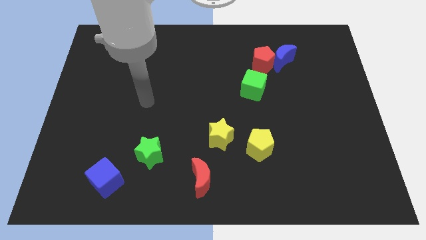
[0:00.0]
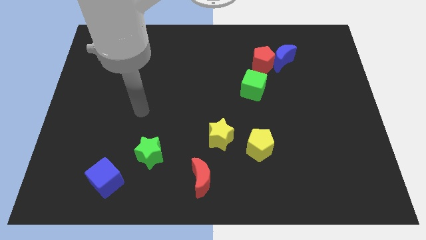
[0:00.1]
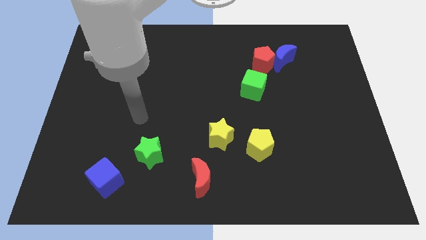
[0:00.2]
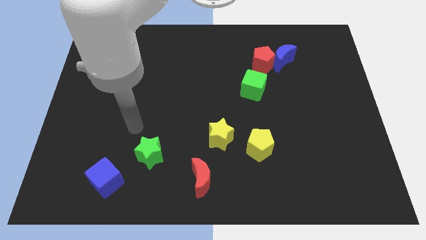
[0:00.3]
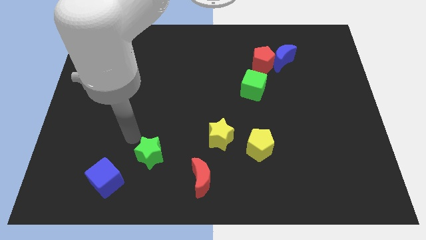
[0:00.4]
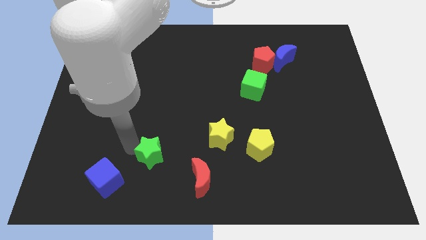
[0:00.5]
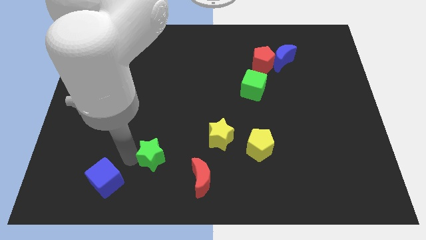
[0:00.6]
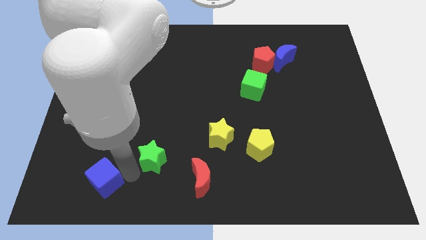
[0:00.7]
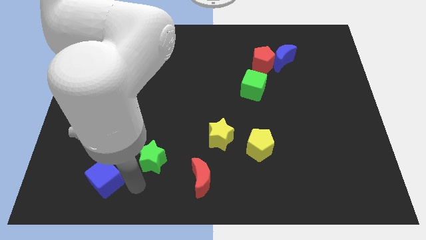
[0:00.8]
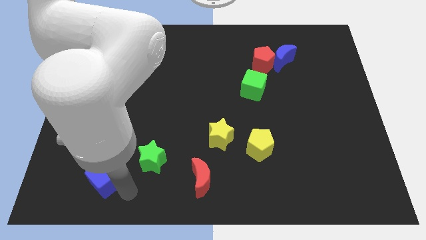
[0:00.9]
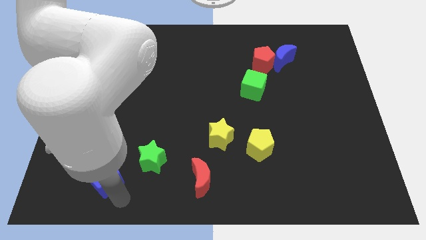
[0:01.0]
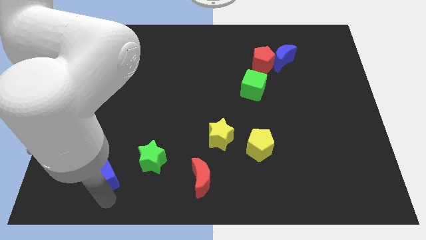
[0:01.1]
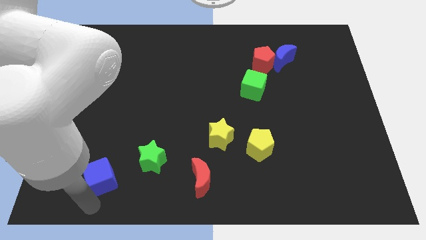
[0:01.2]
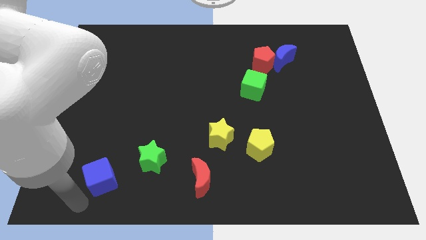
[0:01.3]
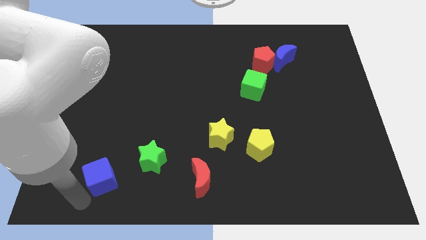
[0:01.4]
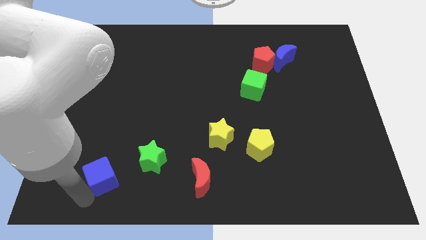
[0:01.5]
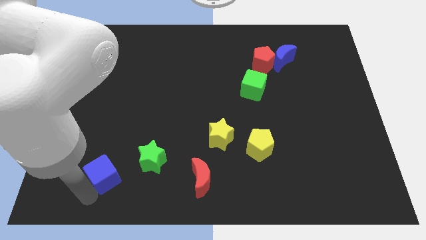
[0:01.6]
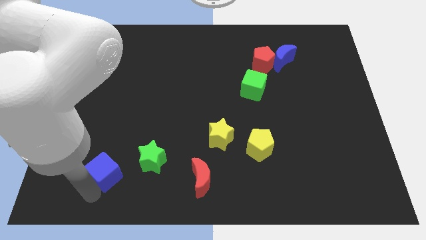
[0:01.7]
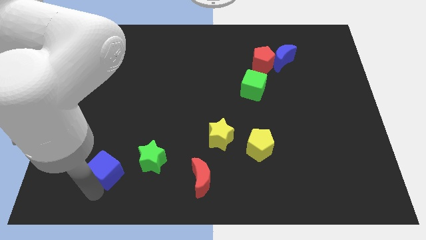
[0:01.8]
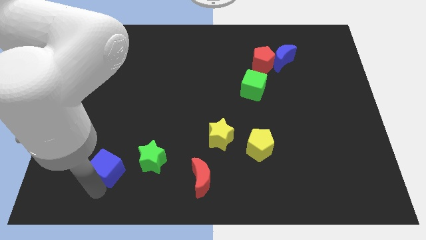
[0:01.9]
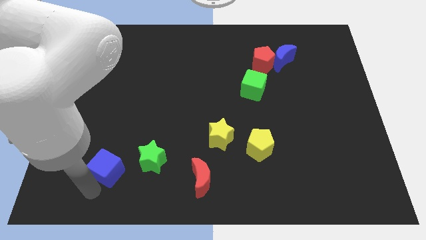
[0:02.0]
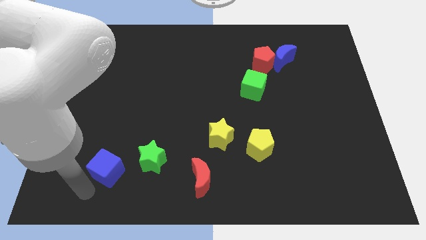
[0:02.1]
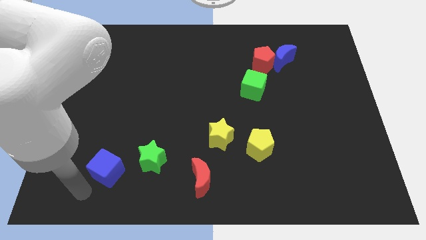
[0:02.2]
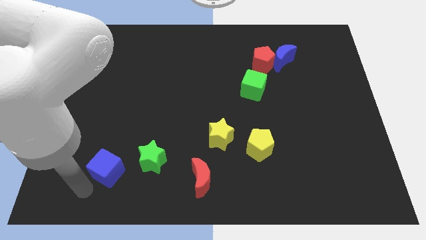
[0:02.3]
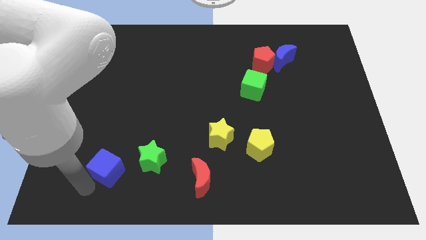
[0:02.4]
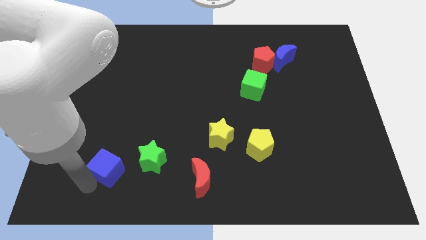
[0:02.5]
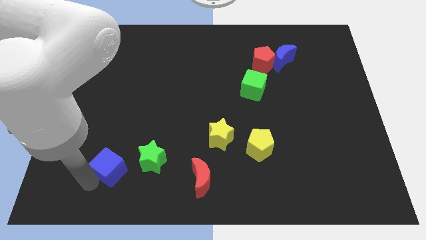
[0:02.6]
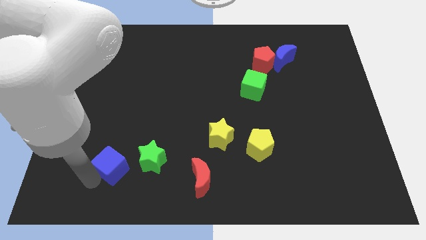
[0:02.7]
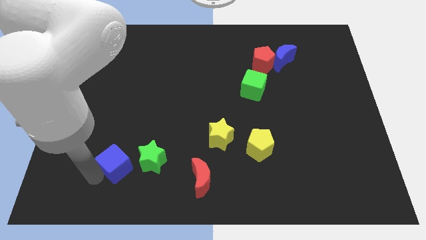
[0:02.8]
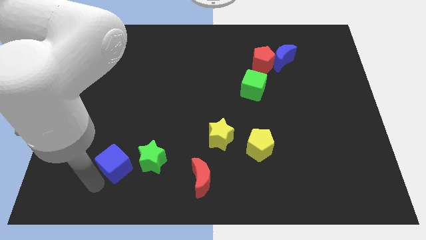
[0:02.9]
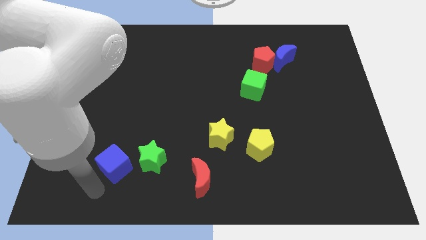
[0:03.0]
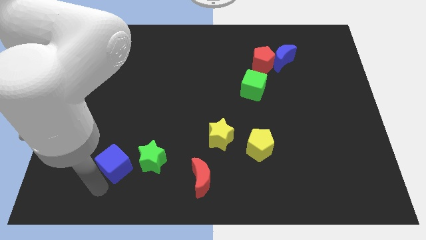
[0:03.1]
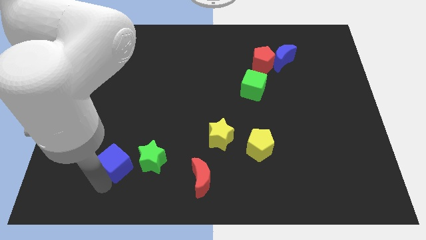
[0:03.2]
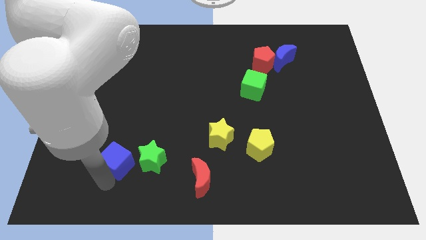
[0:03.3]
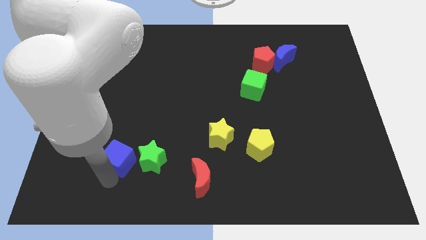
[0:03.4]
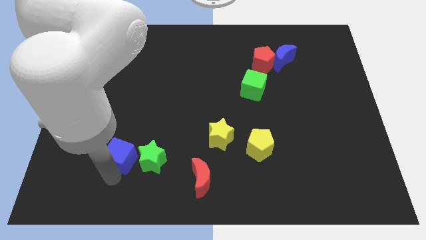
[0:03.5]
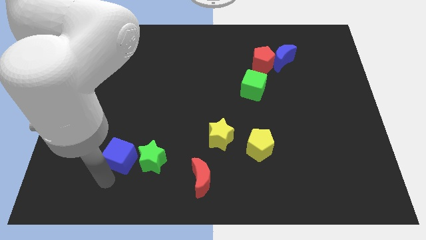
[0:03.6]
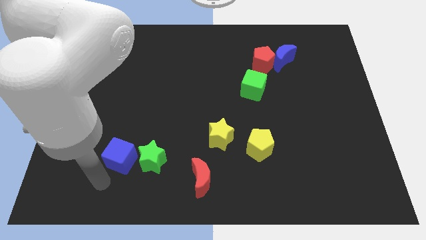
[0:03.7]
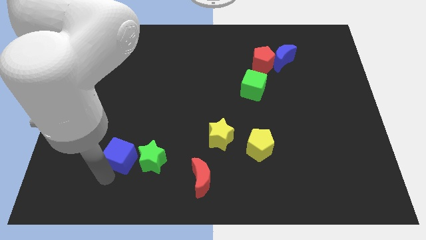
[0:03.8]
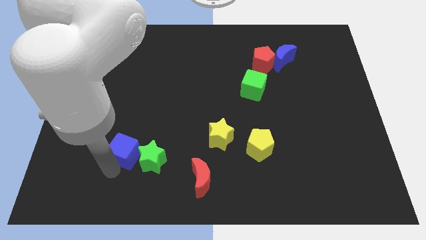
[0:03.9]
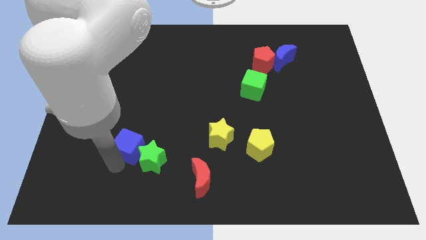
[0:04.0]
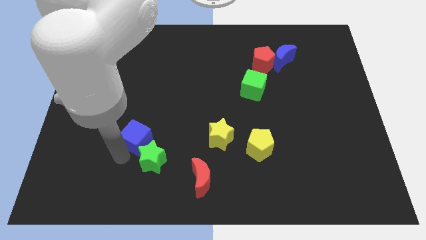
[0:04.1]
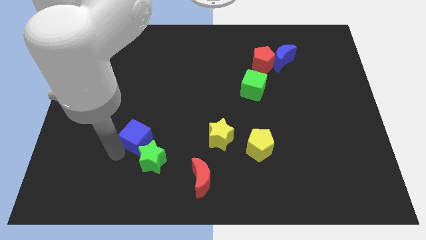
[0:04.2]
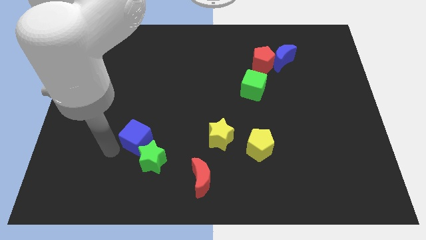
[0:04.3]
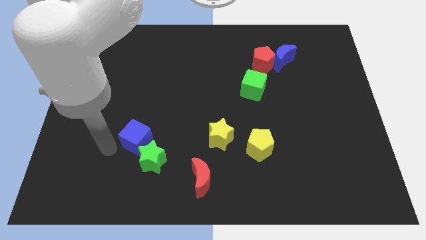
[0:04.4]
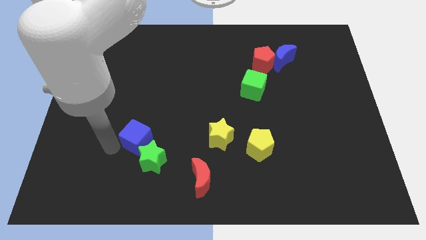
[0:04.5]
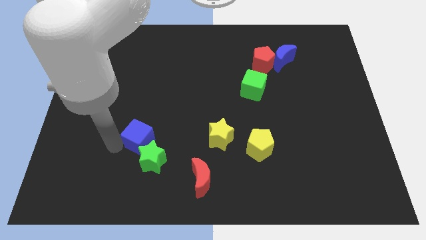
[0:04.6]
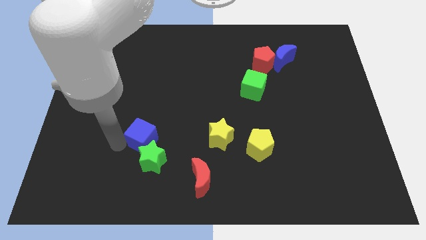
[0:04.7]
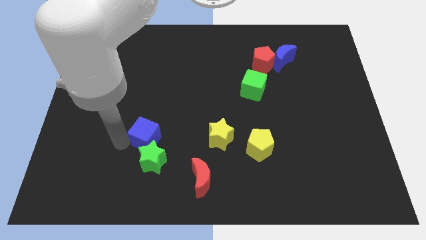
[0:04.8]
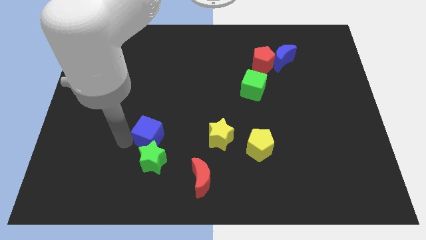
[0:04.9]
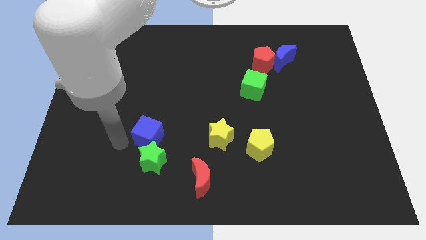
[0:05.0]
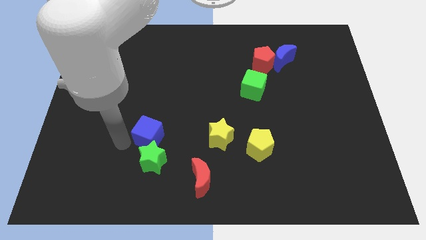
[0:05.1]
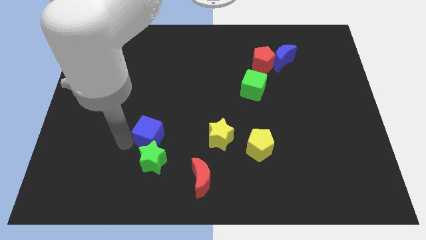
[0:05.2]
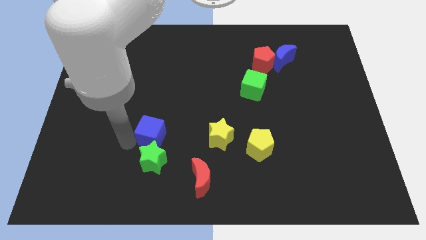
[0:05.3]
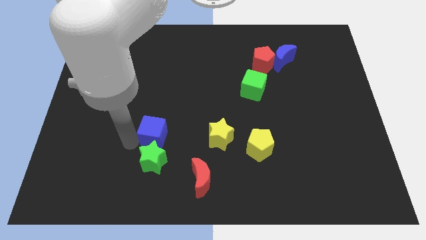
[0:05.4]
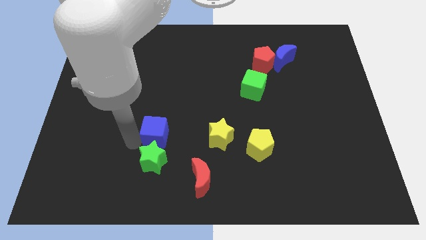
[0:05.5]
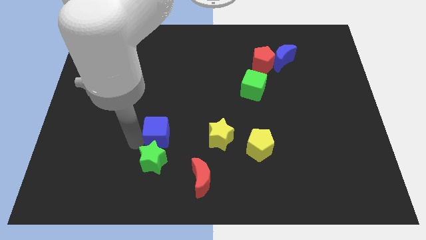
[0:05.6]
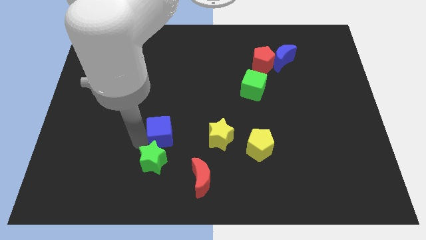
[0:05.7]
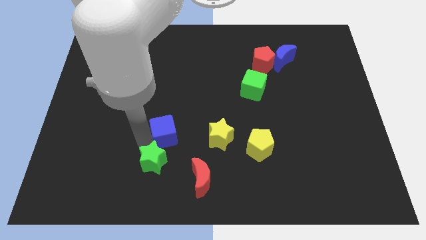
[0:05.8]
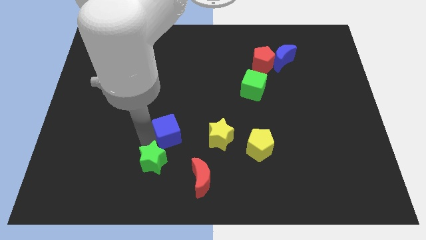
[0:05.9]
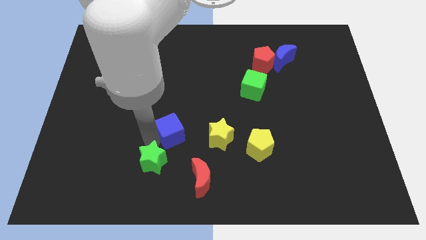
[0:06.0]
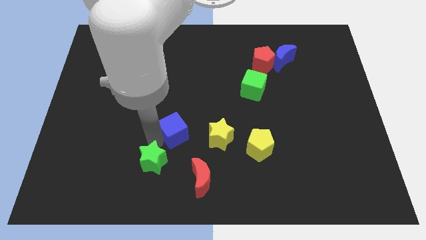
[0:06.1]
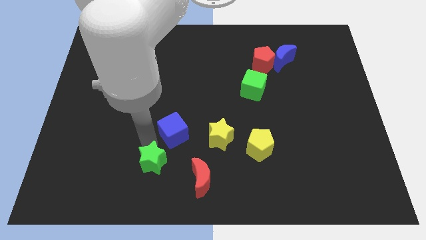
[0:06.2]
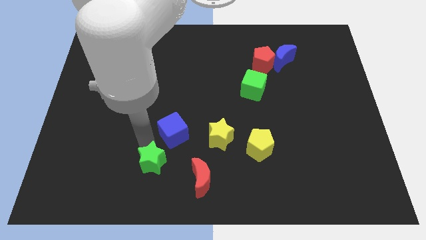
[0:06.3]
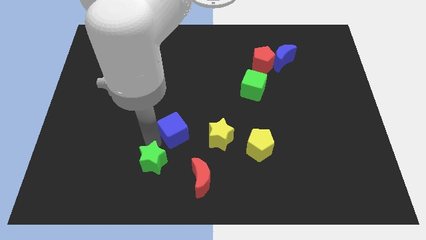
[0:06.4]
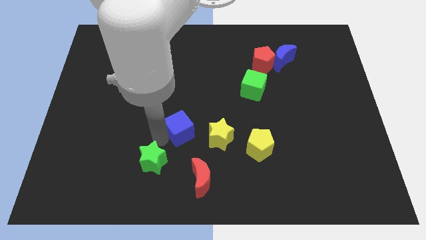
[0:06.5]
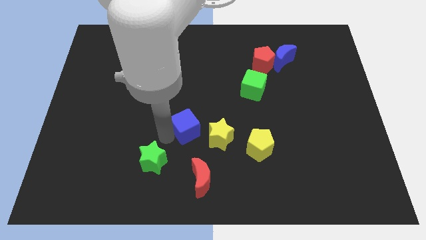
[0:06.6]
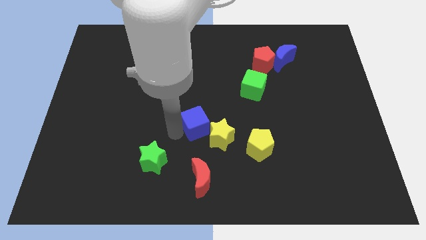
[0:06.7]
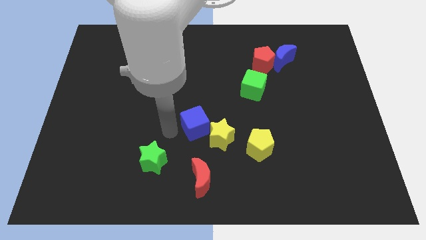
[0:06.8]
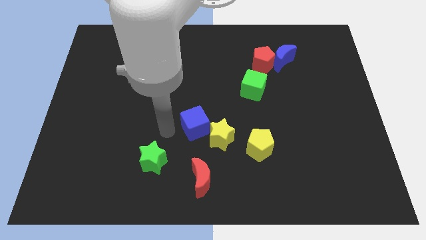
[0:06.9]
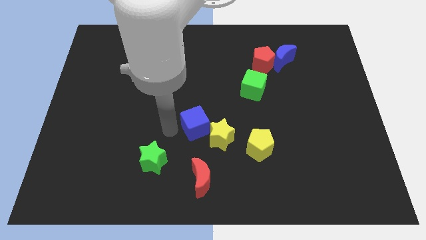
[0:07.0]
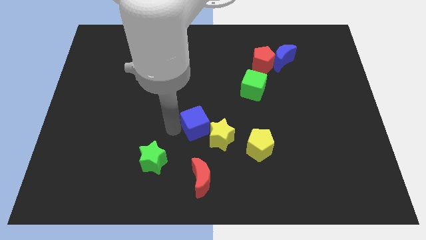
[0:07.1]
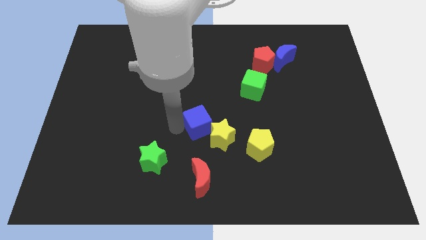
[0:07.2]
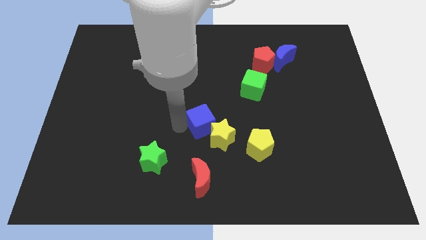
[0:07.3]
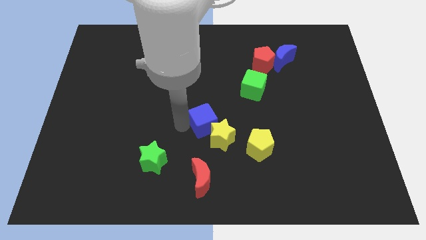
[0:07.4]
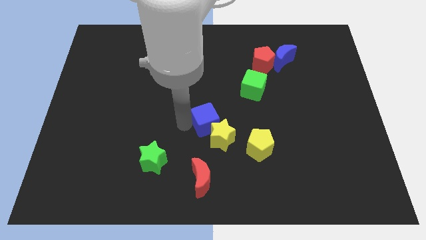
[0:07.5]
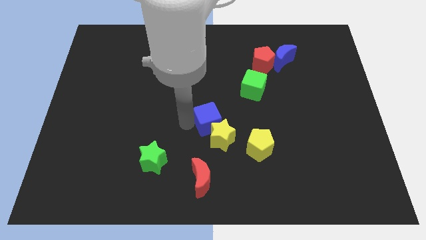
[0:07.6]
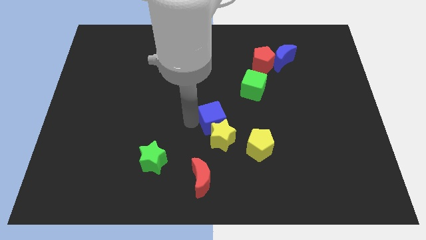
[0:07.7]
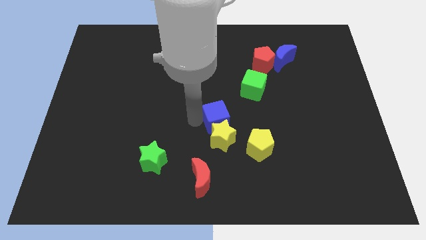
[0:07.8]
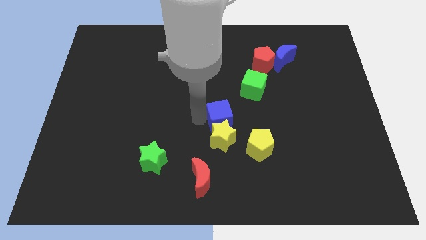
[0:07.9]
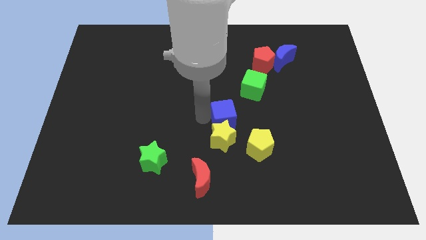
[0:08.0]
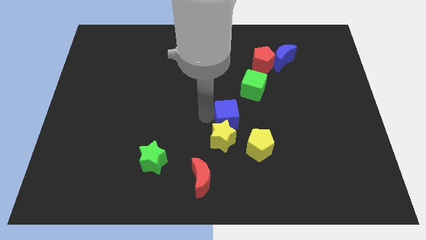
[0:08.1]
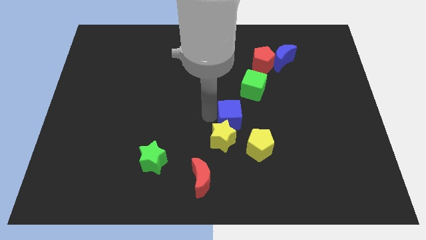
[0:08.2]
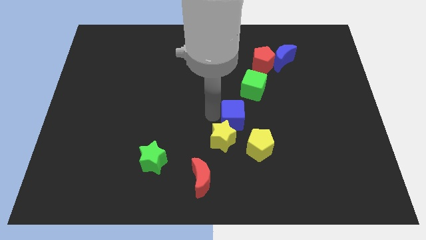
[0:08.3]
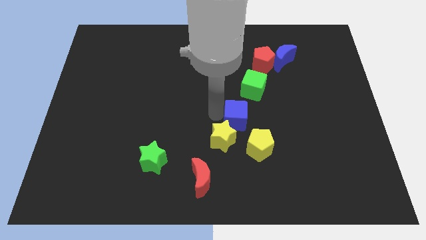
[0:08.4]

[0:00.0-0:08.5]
push the blue cube to the bottom of the green cube
